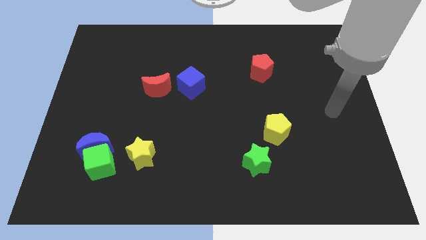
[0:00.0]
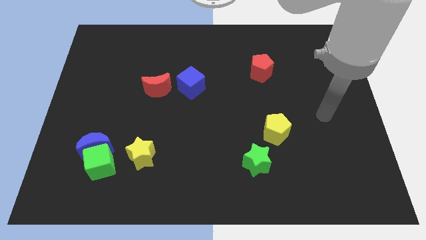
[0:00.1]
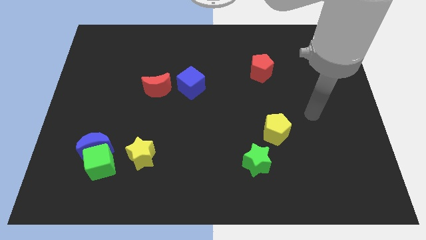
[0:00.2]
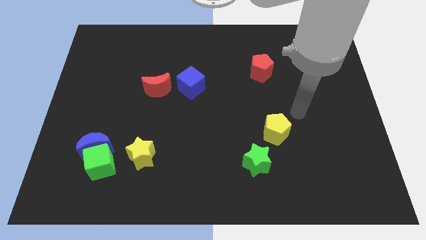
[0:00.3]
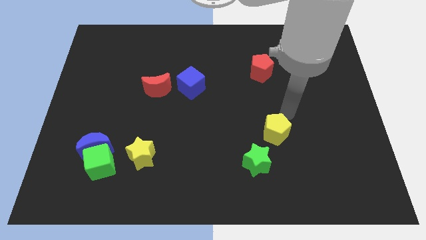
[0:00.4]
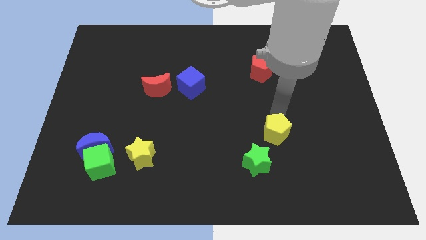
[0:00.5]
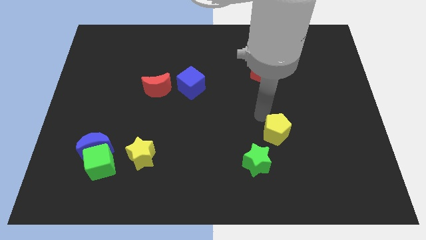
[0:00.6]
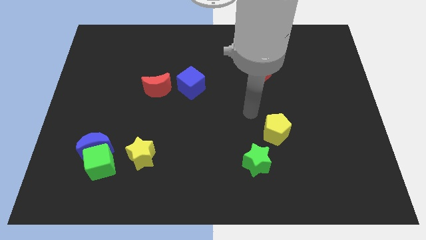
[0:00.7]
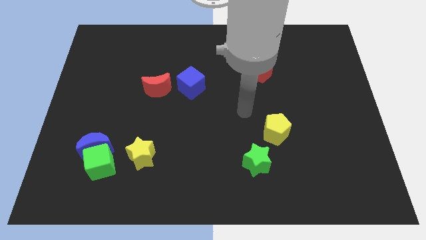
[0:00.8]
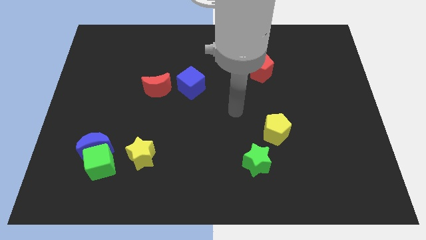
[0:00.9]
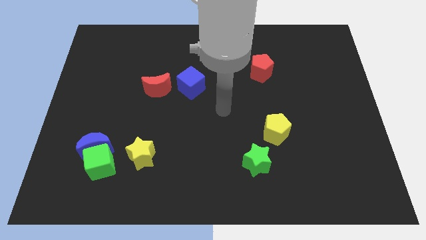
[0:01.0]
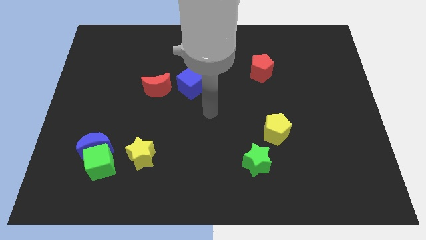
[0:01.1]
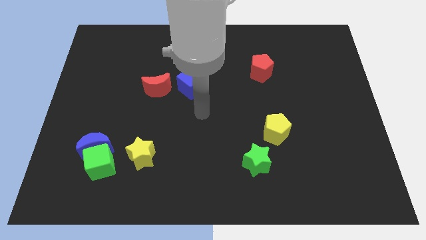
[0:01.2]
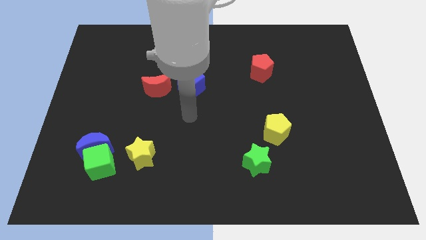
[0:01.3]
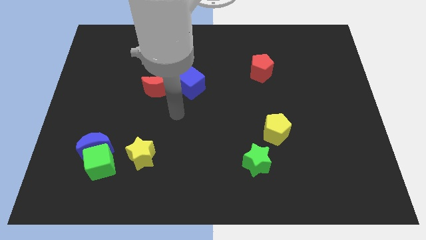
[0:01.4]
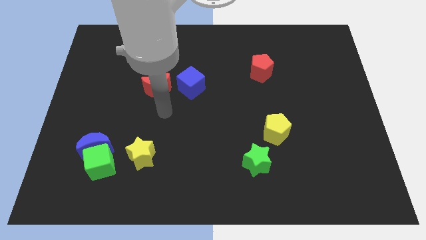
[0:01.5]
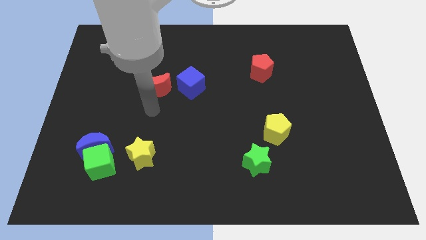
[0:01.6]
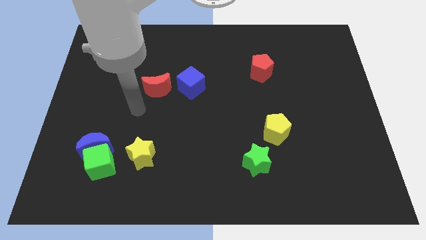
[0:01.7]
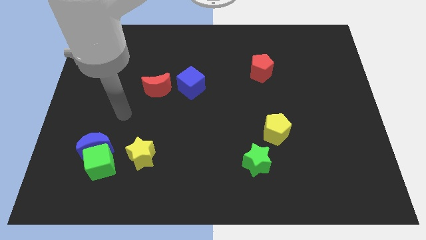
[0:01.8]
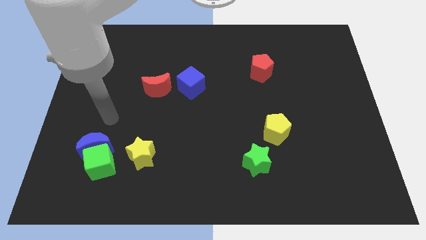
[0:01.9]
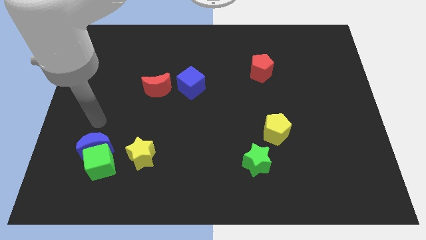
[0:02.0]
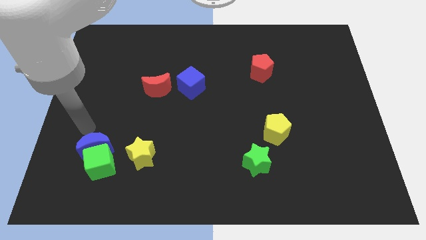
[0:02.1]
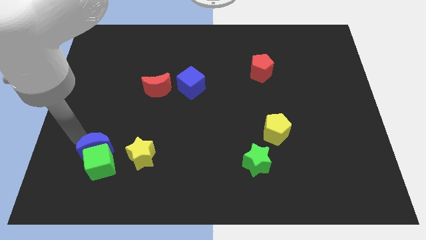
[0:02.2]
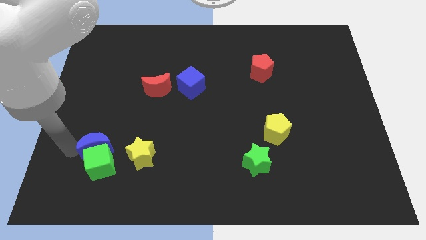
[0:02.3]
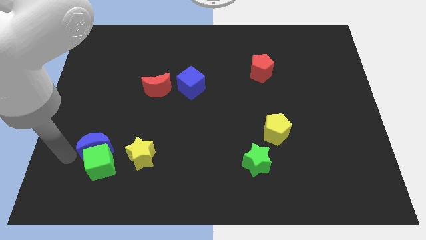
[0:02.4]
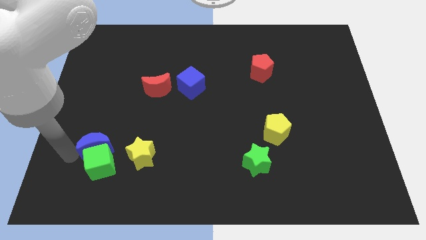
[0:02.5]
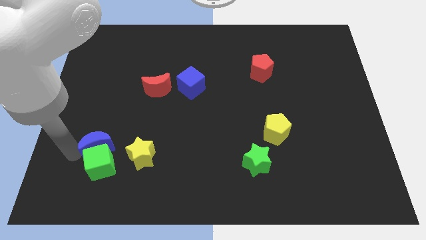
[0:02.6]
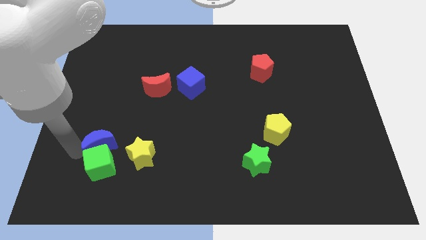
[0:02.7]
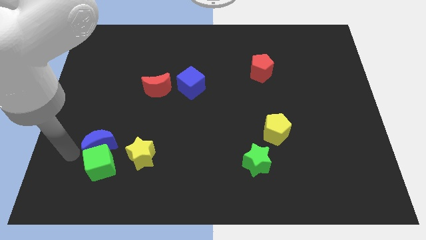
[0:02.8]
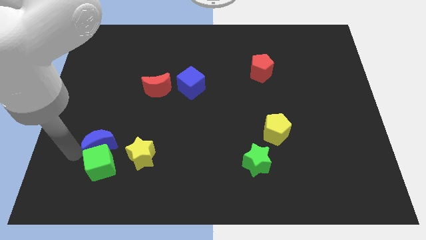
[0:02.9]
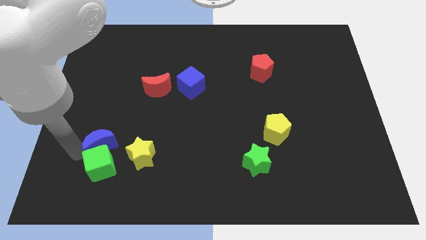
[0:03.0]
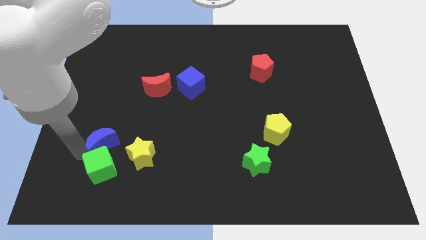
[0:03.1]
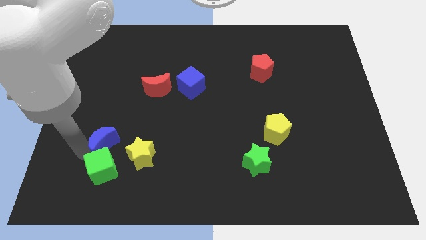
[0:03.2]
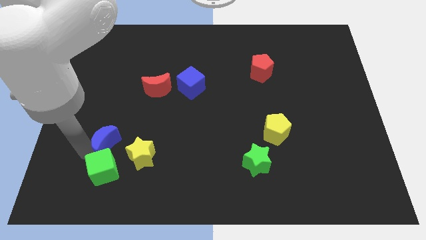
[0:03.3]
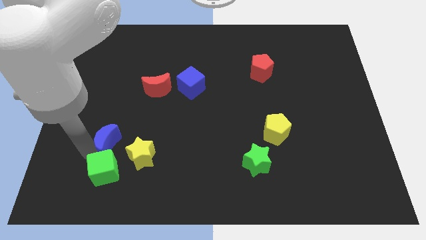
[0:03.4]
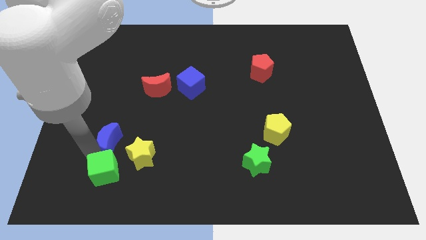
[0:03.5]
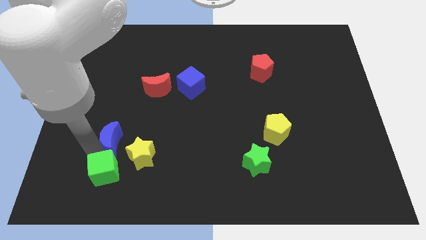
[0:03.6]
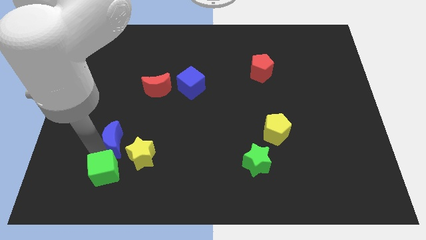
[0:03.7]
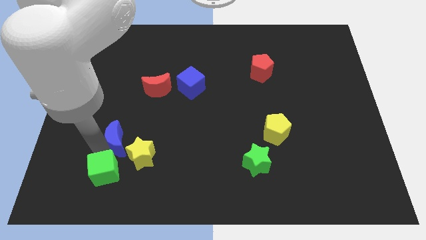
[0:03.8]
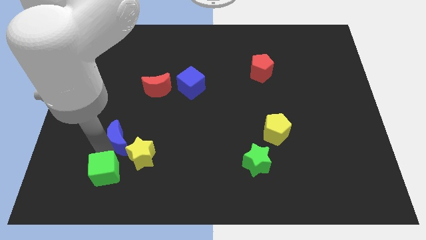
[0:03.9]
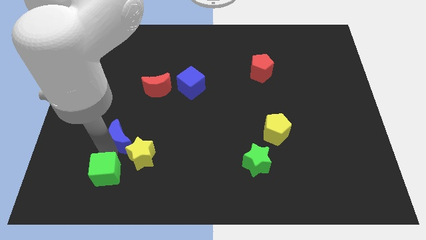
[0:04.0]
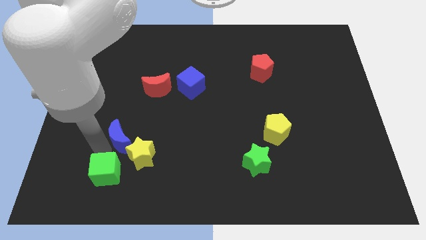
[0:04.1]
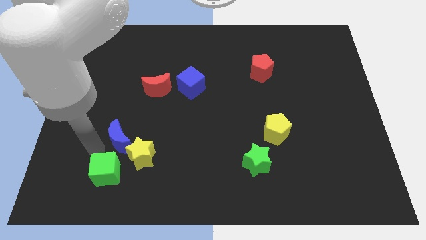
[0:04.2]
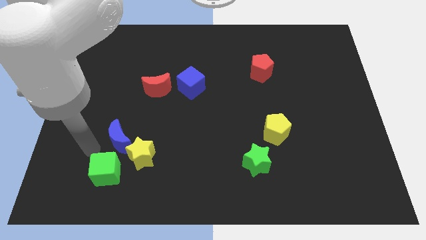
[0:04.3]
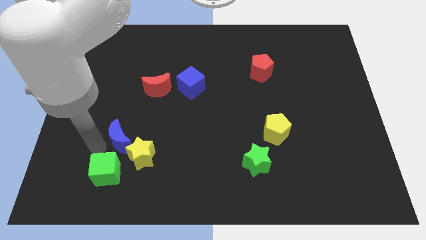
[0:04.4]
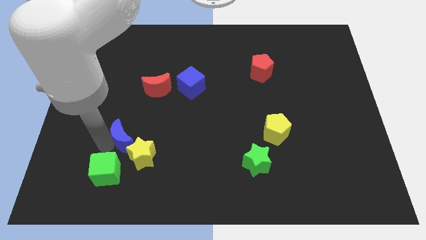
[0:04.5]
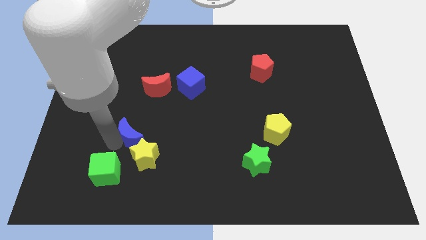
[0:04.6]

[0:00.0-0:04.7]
slightly slide the blue moon right

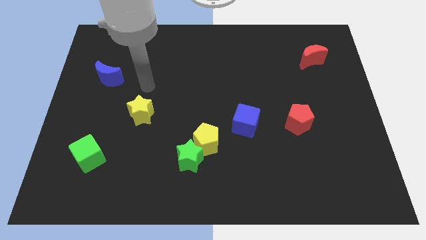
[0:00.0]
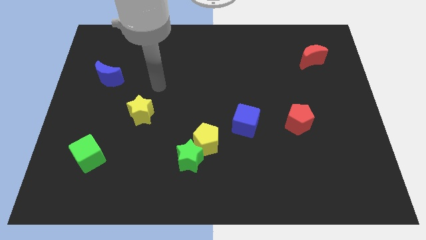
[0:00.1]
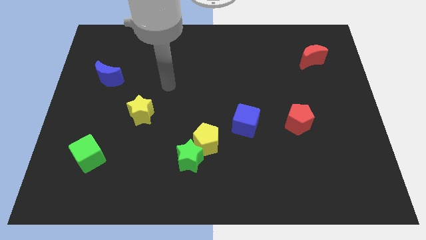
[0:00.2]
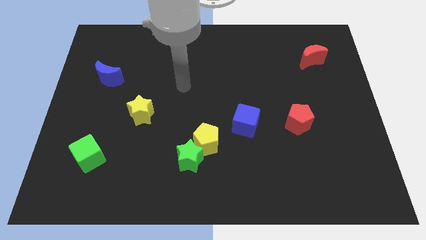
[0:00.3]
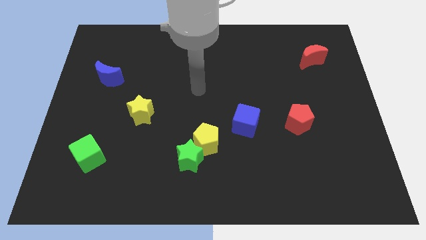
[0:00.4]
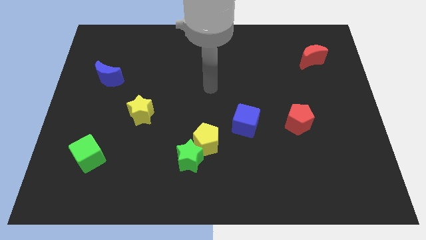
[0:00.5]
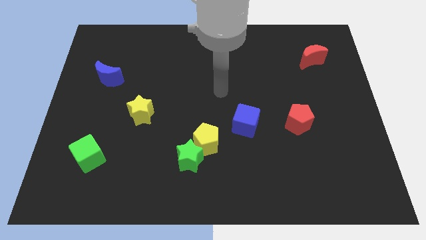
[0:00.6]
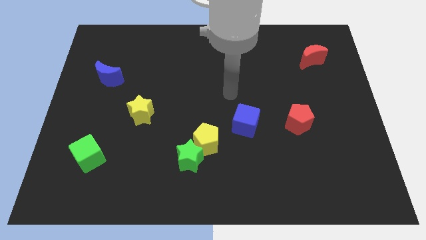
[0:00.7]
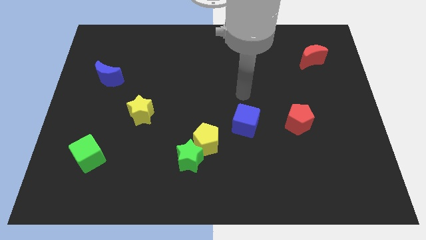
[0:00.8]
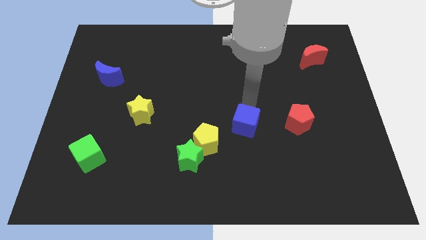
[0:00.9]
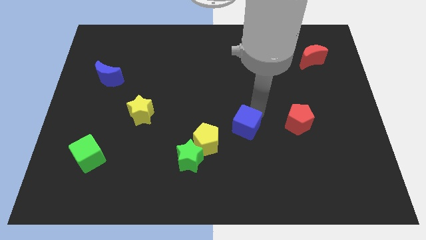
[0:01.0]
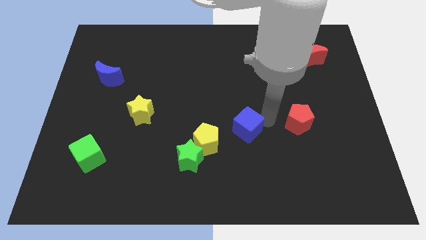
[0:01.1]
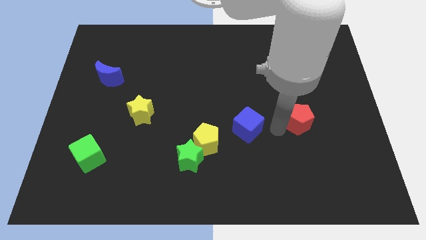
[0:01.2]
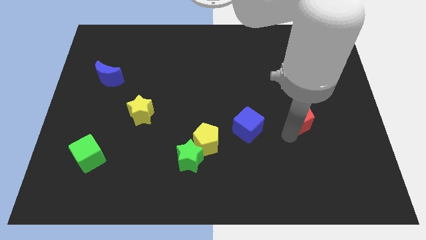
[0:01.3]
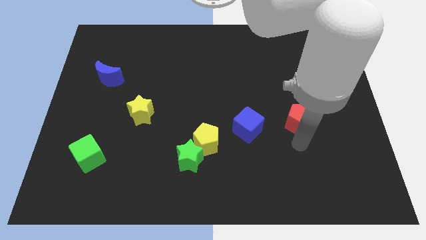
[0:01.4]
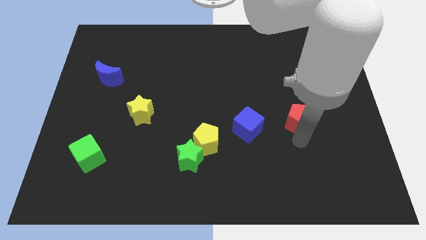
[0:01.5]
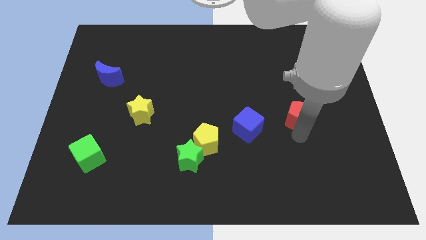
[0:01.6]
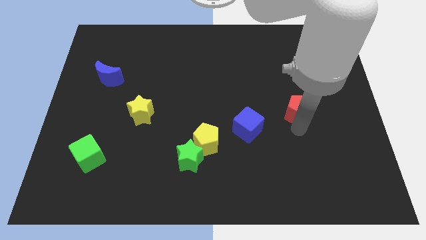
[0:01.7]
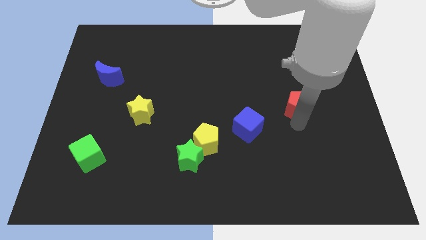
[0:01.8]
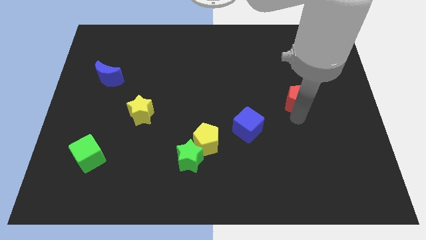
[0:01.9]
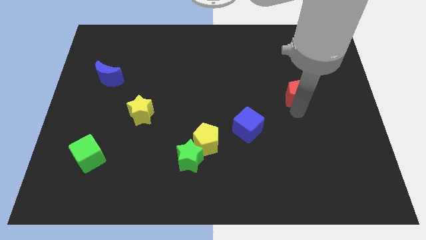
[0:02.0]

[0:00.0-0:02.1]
slide the red pentagon upwards a bit

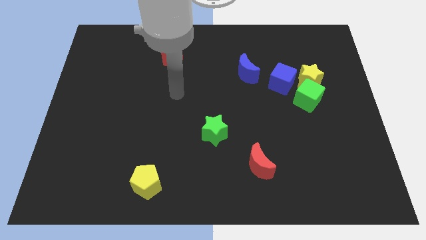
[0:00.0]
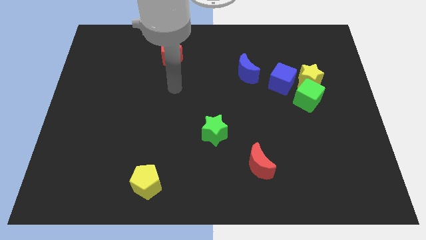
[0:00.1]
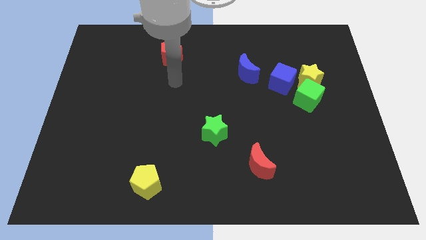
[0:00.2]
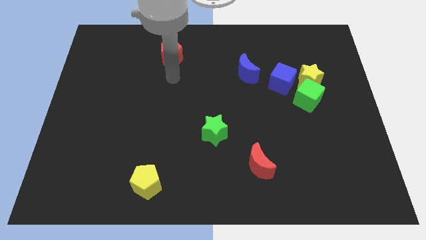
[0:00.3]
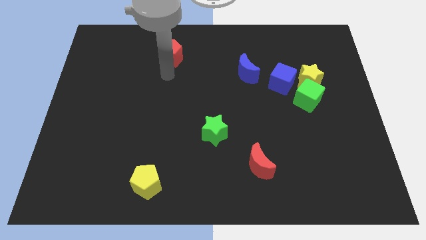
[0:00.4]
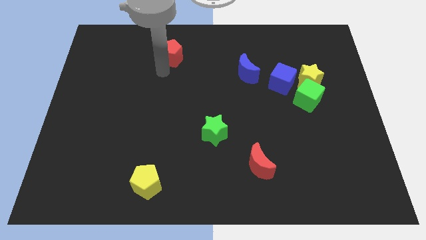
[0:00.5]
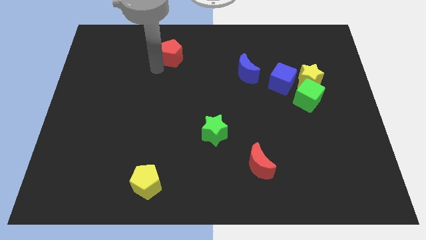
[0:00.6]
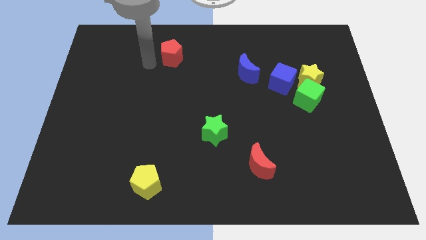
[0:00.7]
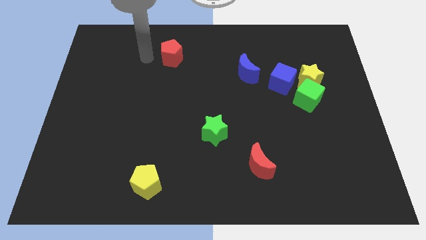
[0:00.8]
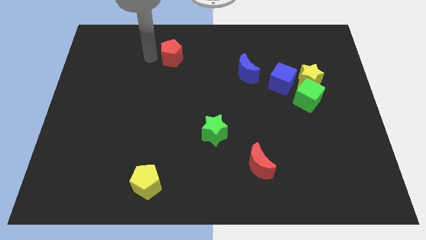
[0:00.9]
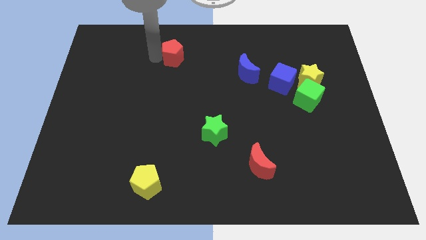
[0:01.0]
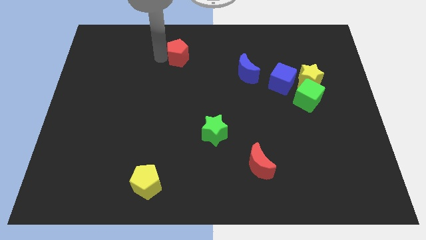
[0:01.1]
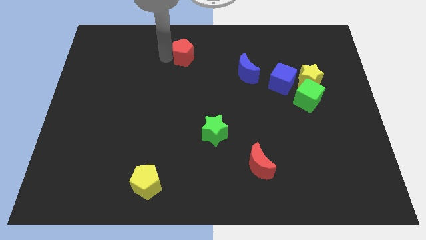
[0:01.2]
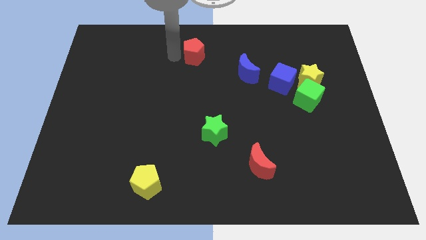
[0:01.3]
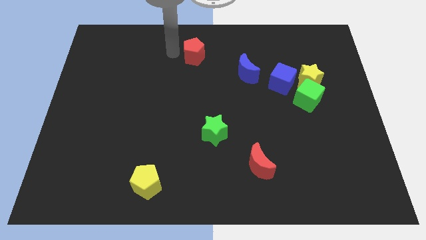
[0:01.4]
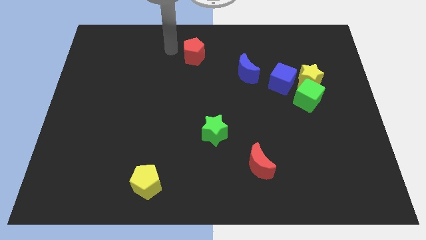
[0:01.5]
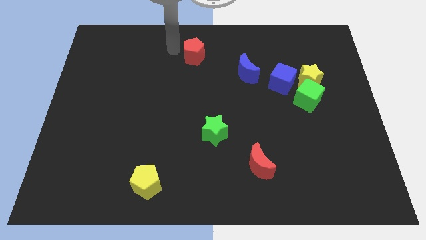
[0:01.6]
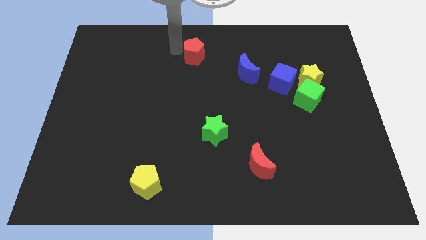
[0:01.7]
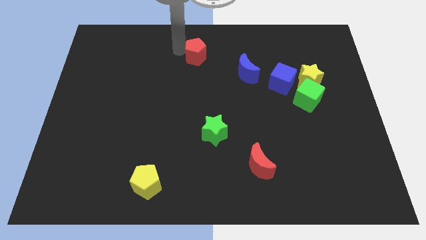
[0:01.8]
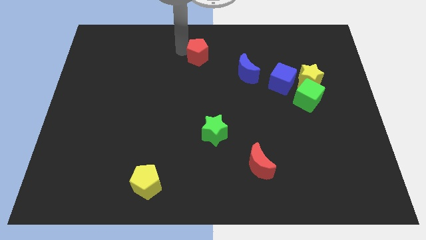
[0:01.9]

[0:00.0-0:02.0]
slightly move the red pentagon to the right
